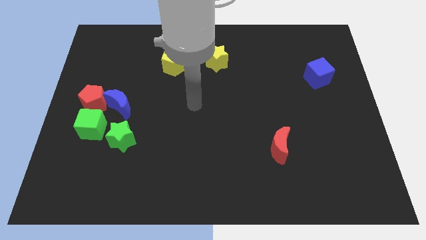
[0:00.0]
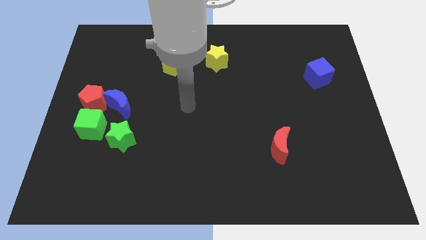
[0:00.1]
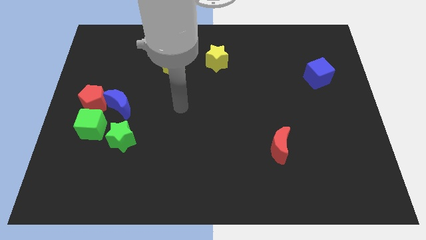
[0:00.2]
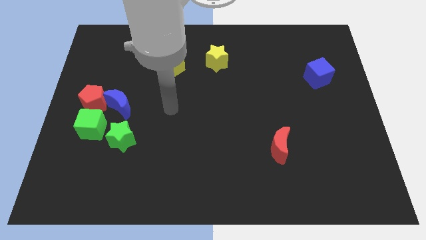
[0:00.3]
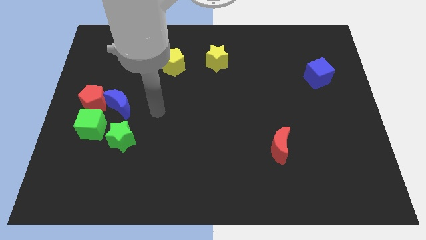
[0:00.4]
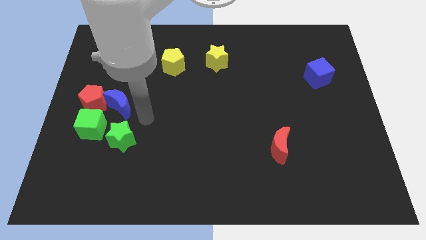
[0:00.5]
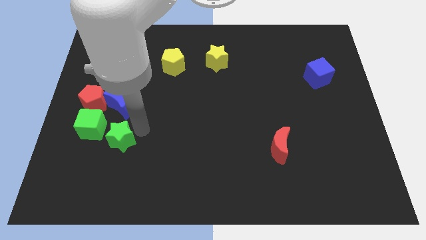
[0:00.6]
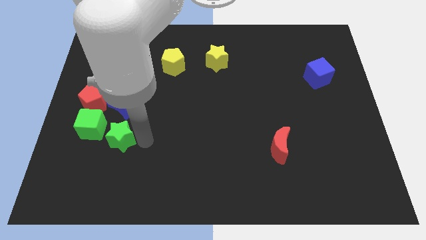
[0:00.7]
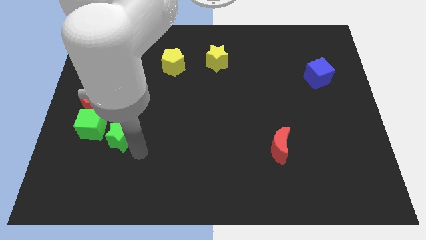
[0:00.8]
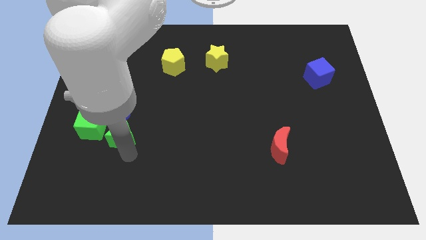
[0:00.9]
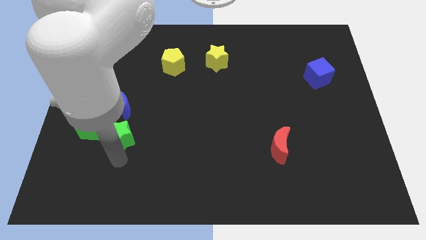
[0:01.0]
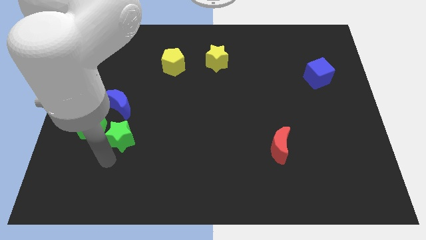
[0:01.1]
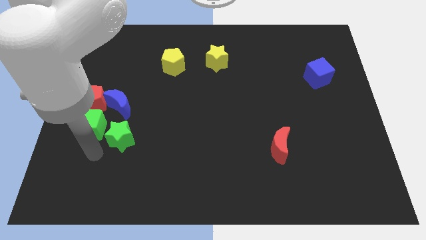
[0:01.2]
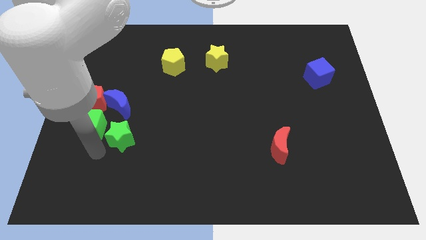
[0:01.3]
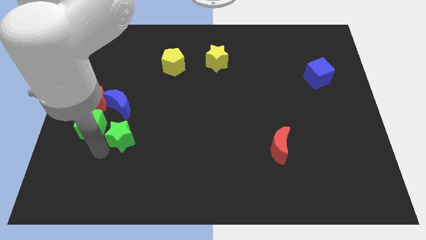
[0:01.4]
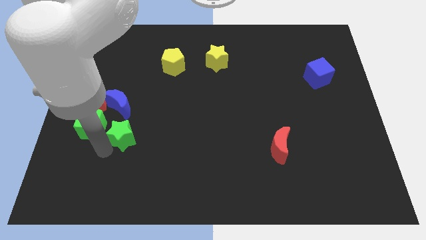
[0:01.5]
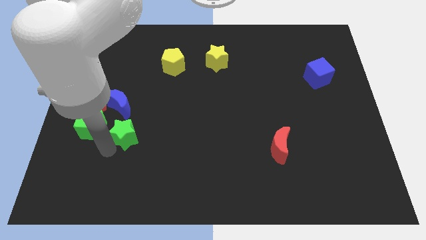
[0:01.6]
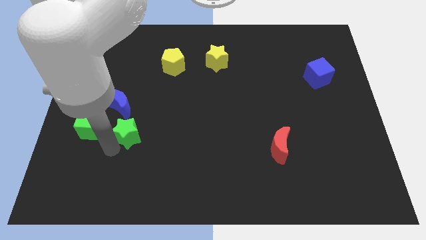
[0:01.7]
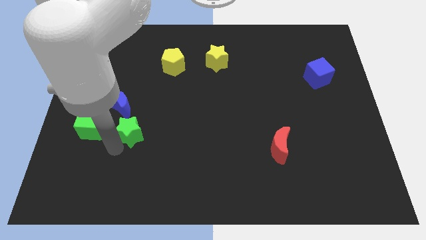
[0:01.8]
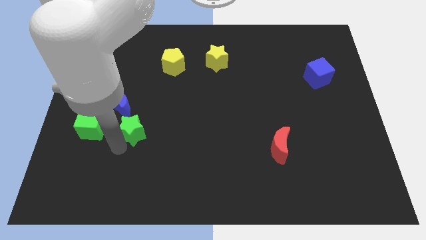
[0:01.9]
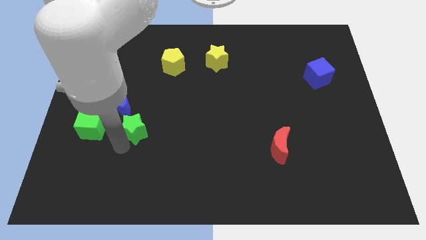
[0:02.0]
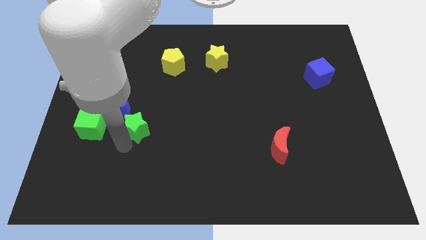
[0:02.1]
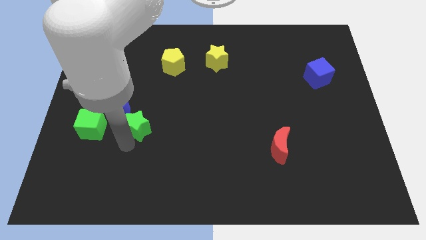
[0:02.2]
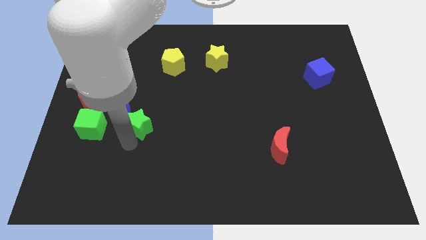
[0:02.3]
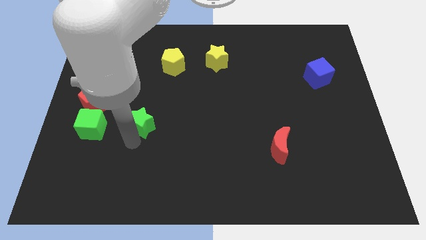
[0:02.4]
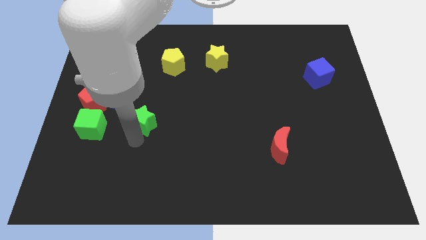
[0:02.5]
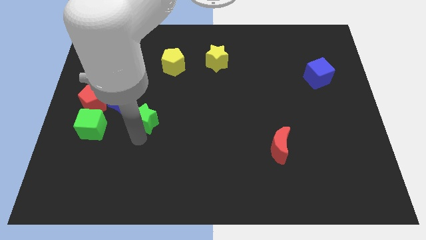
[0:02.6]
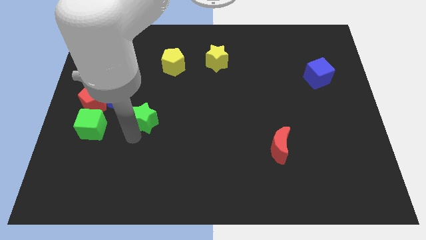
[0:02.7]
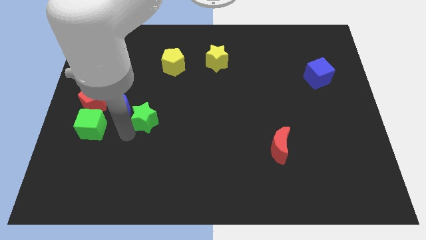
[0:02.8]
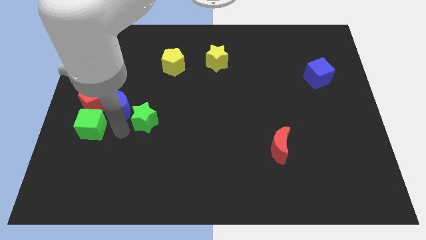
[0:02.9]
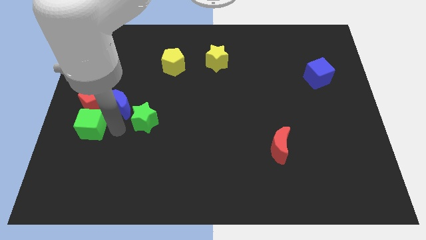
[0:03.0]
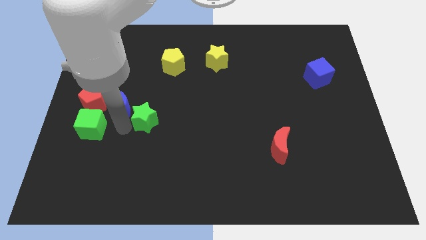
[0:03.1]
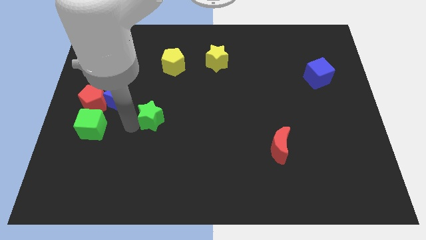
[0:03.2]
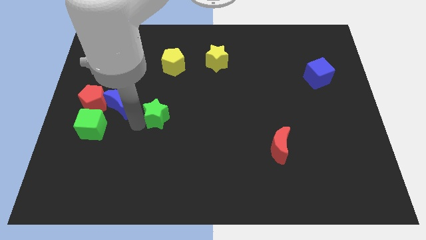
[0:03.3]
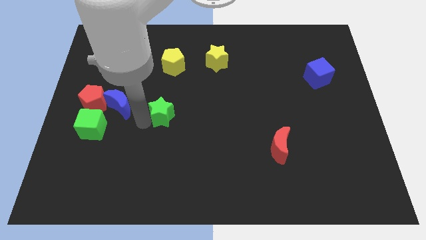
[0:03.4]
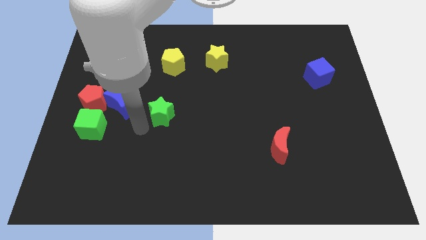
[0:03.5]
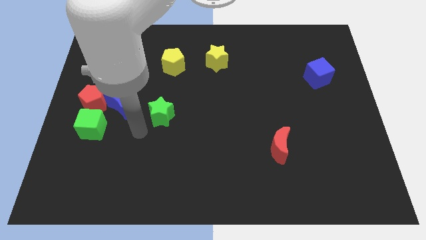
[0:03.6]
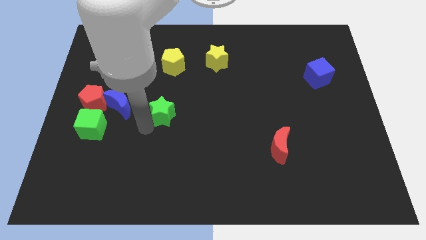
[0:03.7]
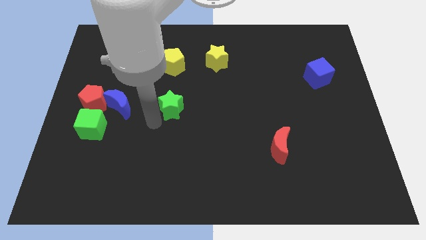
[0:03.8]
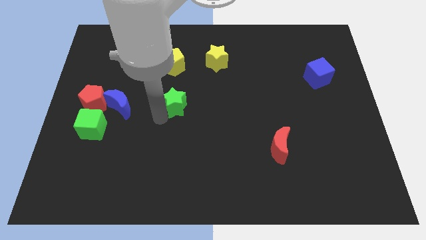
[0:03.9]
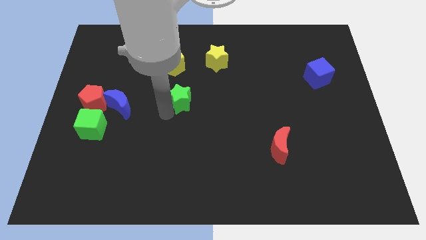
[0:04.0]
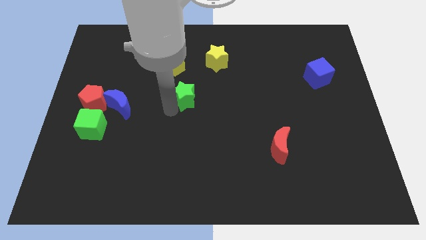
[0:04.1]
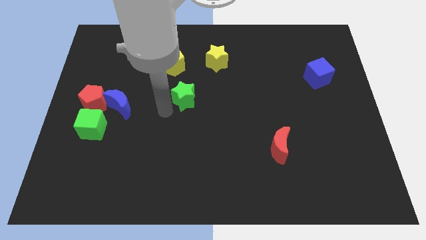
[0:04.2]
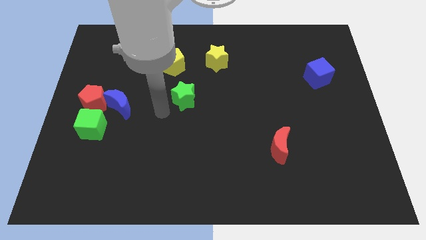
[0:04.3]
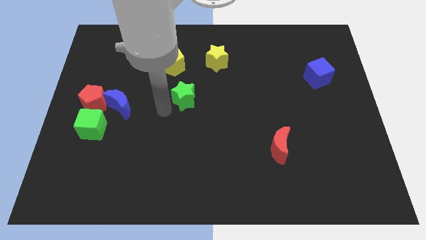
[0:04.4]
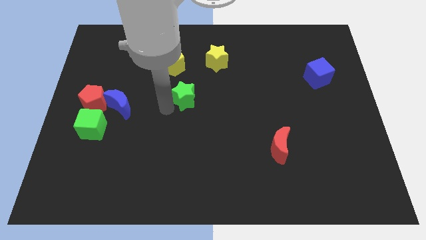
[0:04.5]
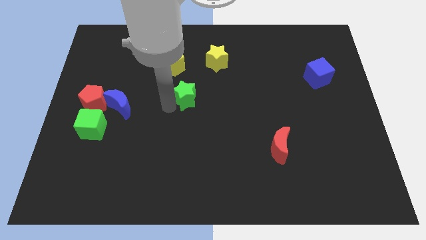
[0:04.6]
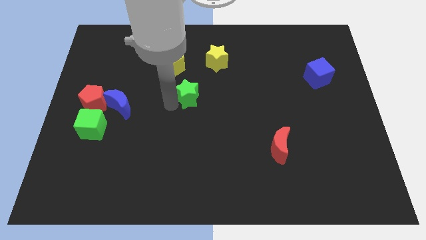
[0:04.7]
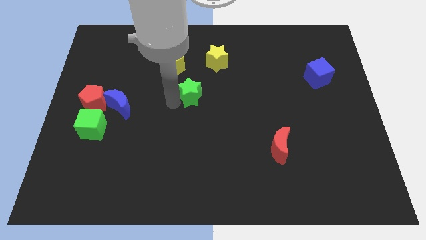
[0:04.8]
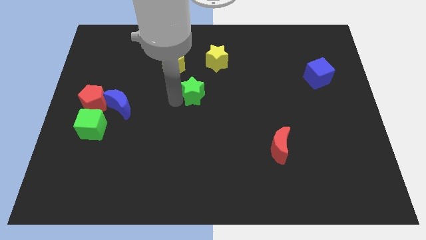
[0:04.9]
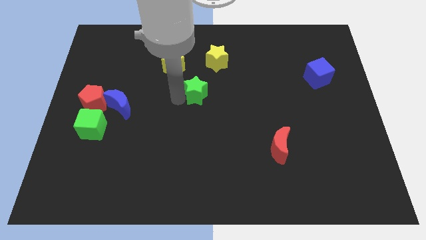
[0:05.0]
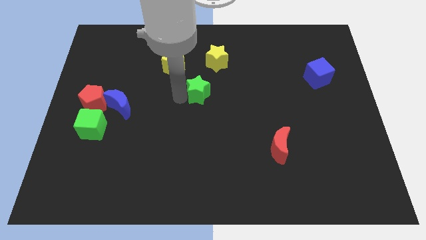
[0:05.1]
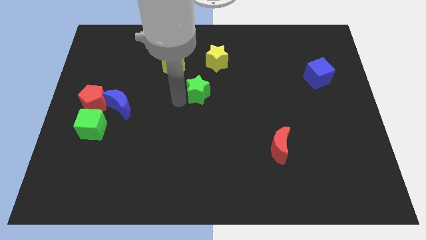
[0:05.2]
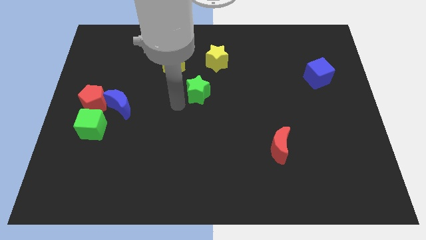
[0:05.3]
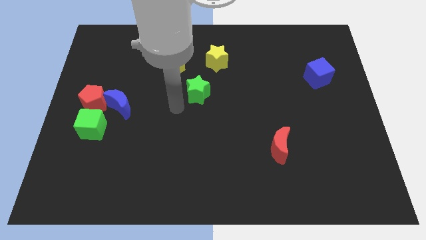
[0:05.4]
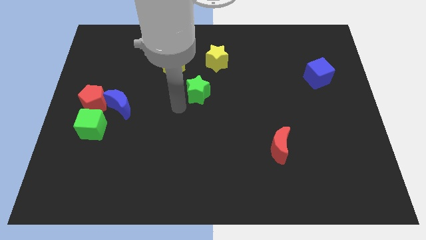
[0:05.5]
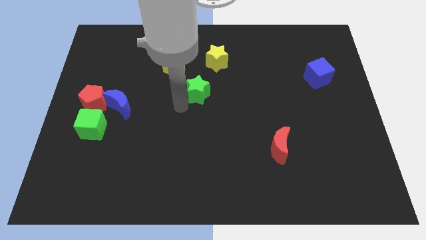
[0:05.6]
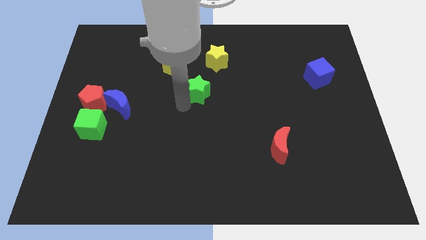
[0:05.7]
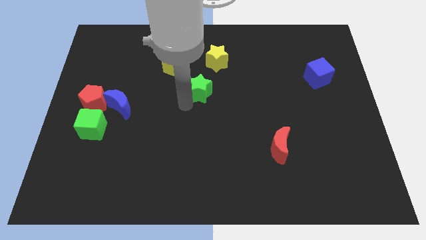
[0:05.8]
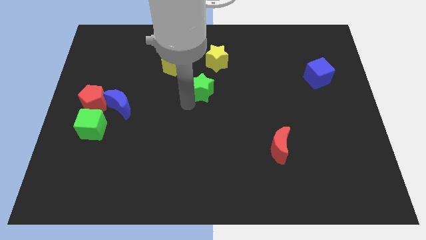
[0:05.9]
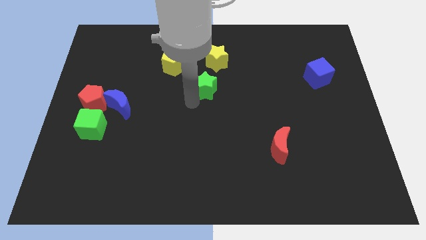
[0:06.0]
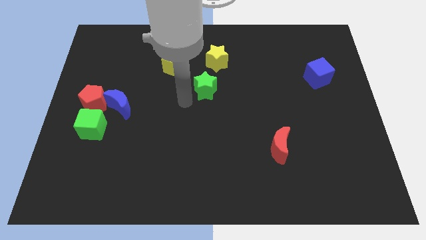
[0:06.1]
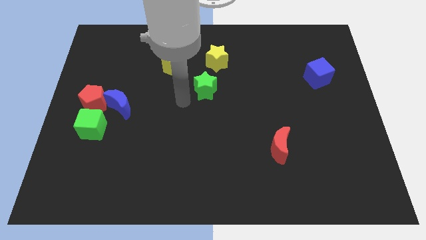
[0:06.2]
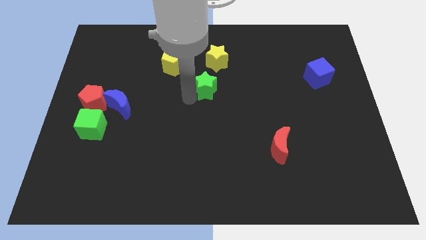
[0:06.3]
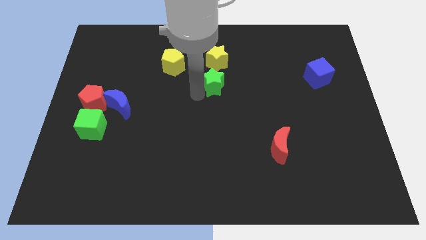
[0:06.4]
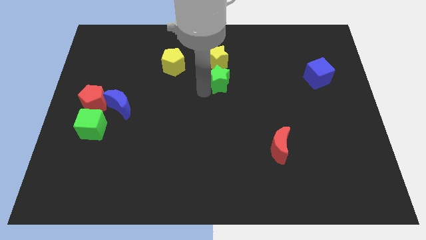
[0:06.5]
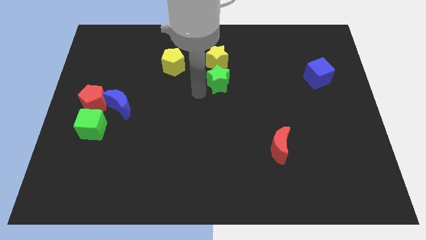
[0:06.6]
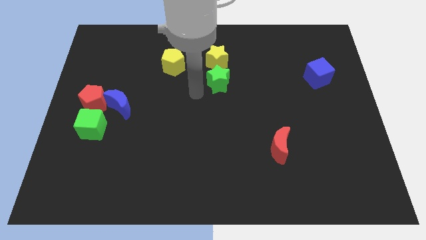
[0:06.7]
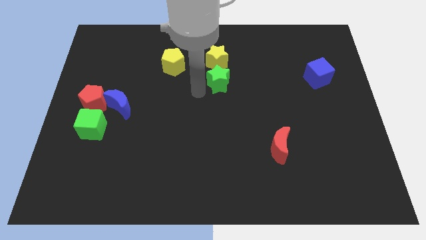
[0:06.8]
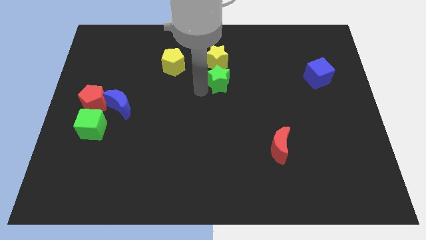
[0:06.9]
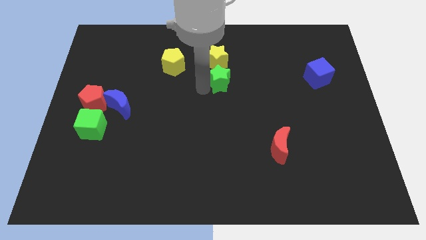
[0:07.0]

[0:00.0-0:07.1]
move the green star to the bottom right of the yellow star
